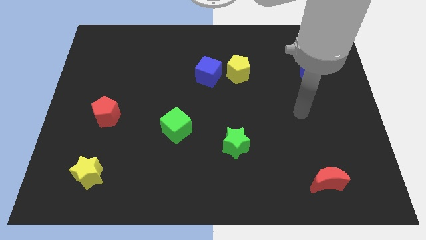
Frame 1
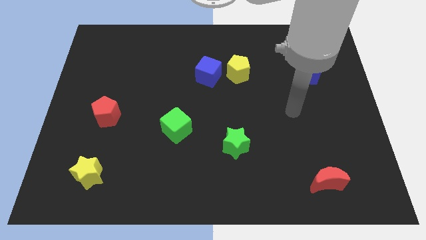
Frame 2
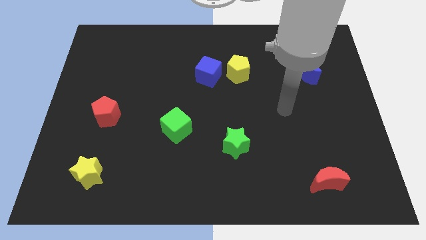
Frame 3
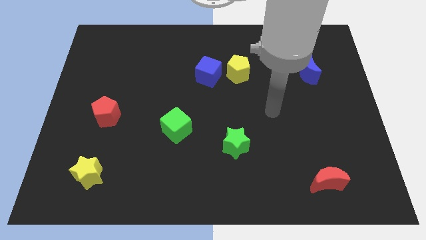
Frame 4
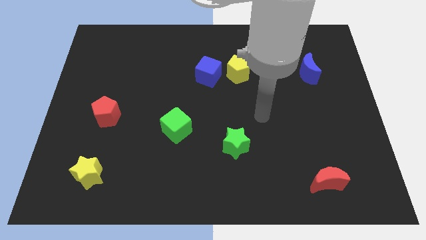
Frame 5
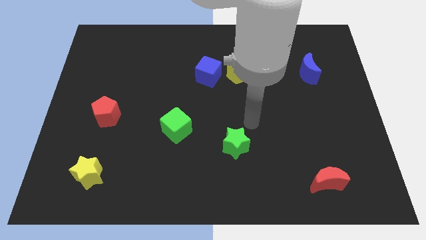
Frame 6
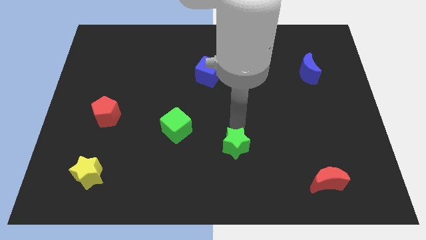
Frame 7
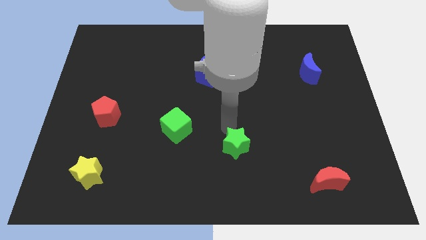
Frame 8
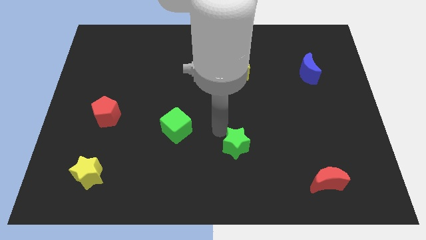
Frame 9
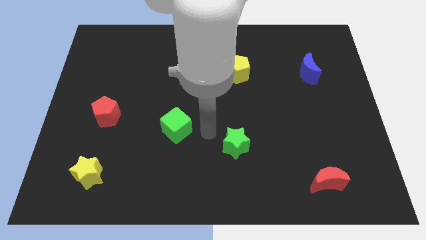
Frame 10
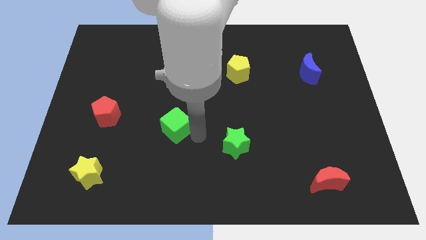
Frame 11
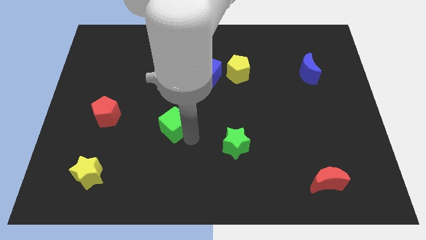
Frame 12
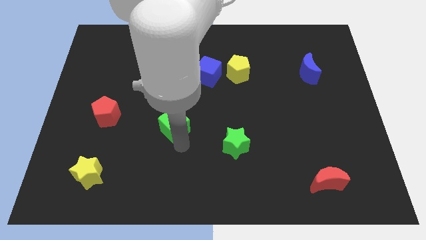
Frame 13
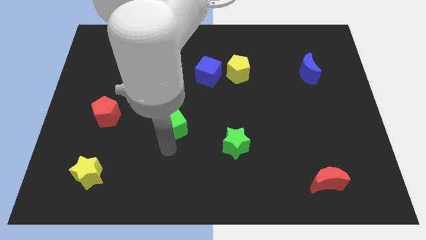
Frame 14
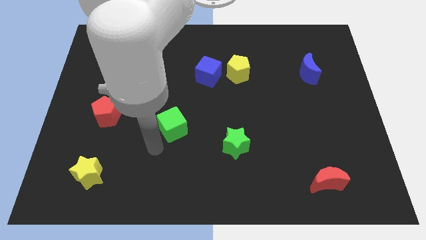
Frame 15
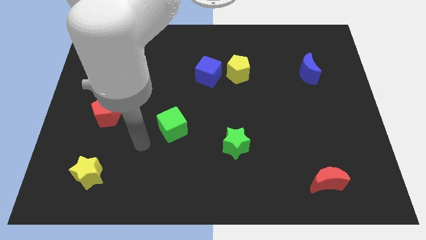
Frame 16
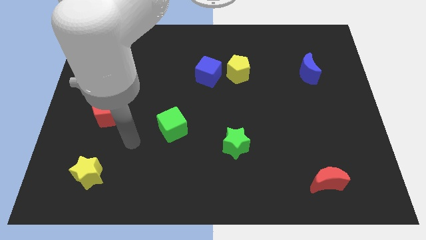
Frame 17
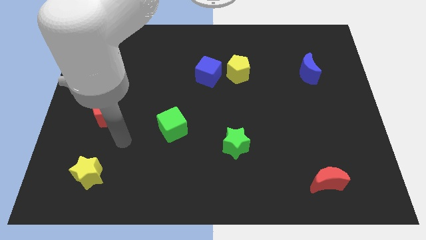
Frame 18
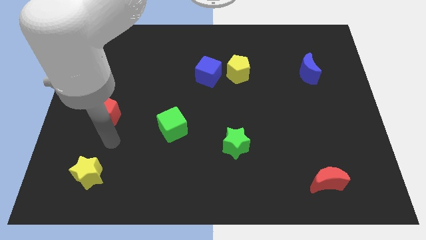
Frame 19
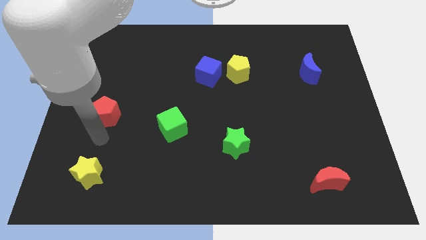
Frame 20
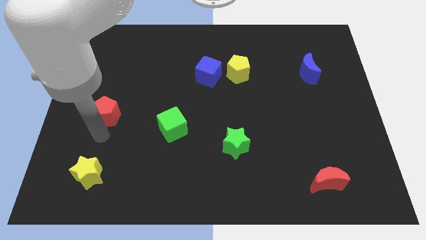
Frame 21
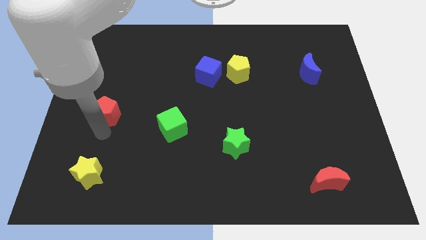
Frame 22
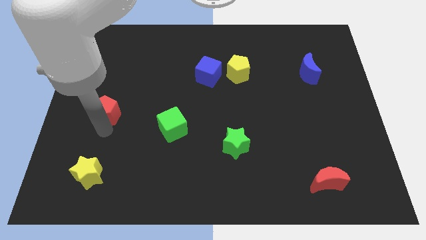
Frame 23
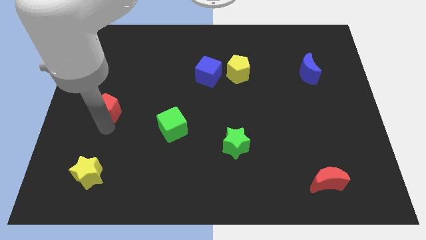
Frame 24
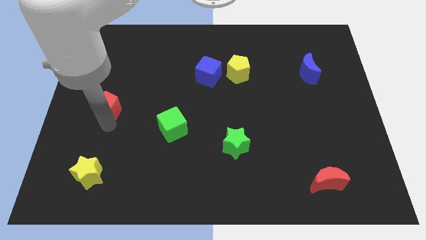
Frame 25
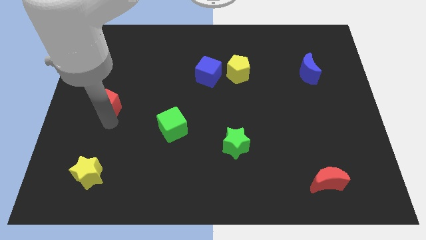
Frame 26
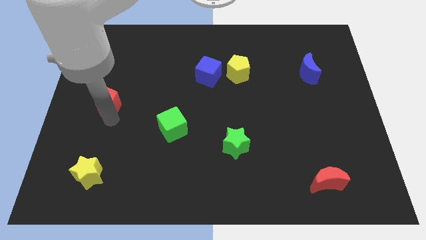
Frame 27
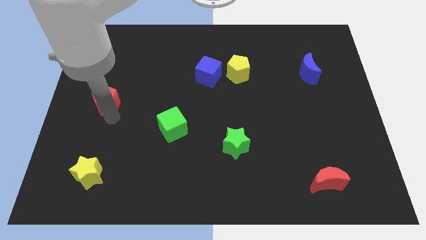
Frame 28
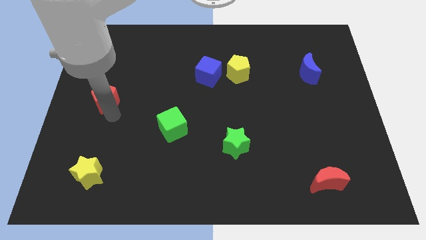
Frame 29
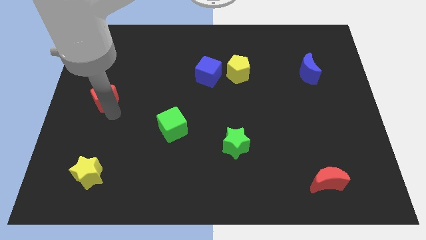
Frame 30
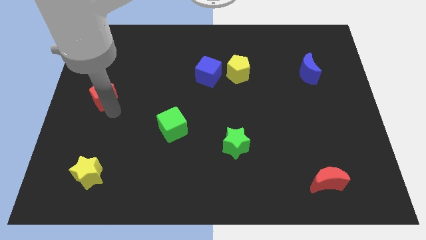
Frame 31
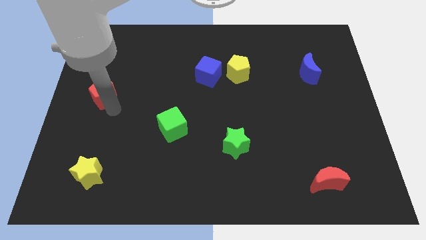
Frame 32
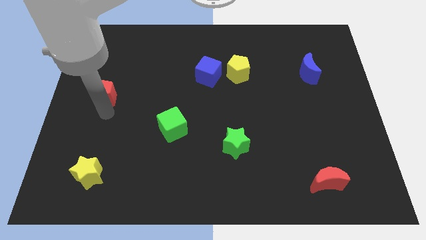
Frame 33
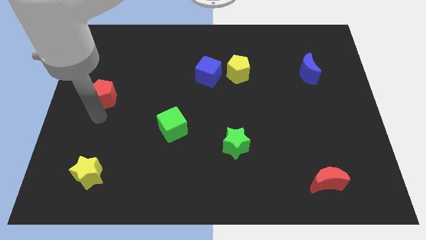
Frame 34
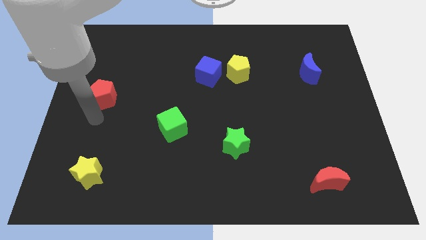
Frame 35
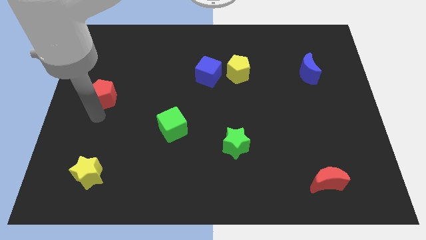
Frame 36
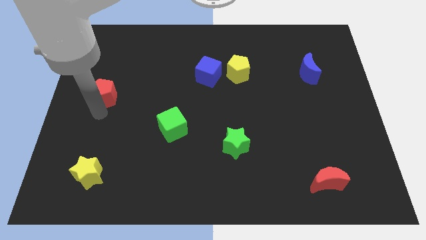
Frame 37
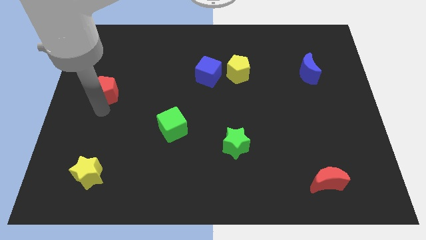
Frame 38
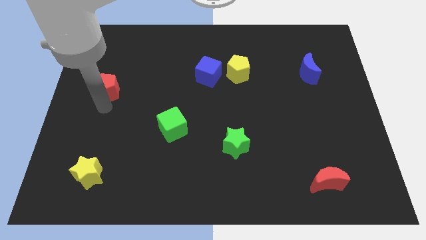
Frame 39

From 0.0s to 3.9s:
push the red pentagon slightly upwards

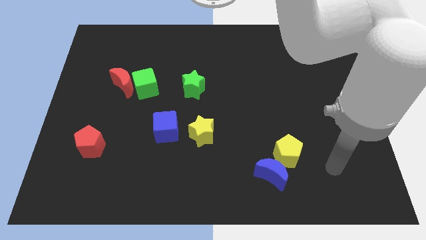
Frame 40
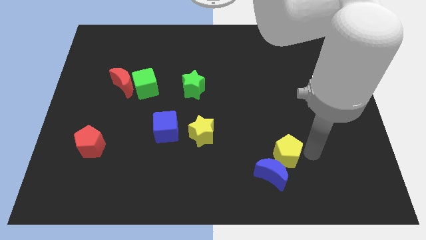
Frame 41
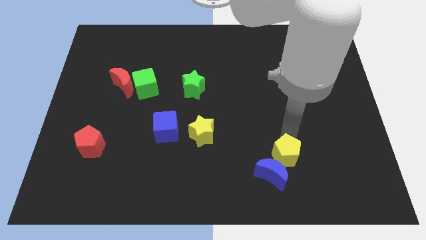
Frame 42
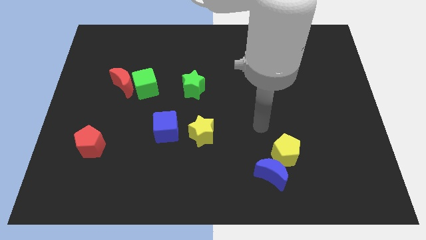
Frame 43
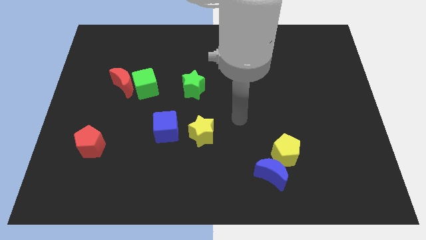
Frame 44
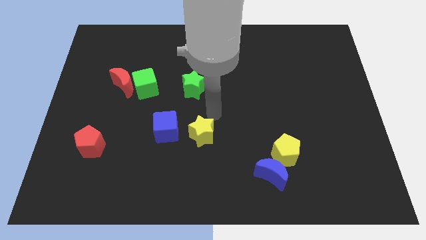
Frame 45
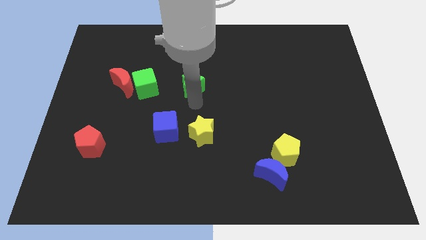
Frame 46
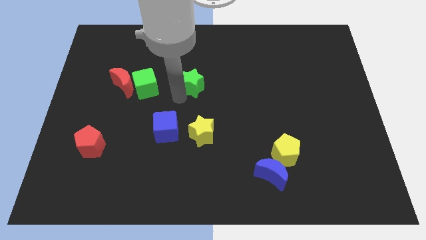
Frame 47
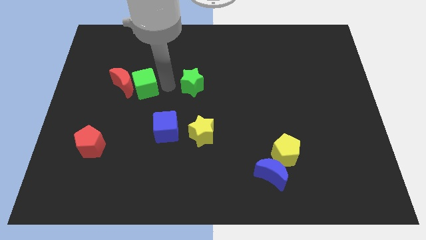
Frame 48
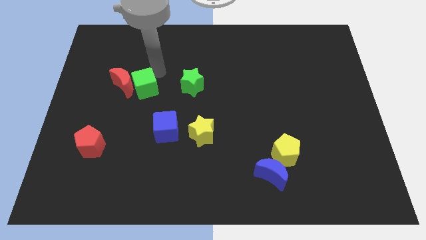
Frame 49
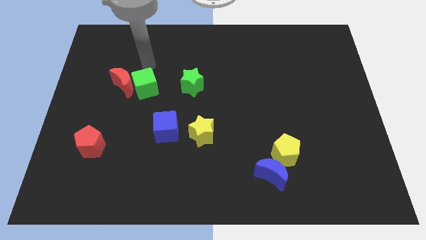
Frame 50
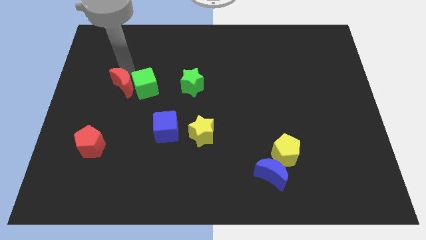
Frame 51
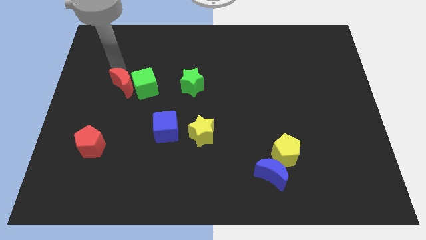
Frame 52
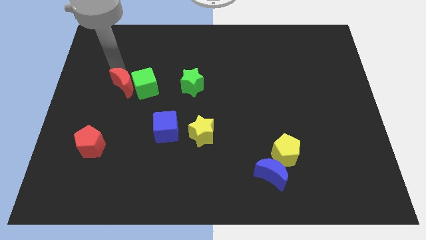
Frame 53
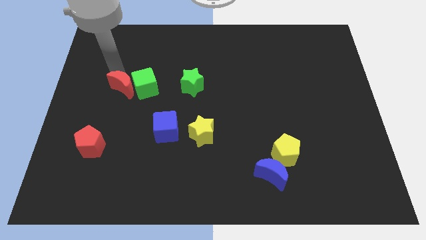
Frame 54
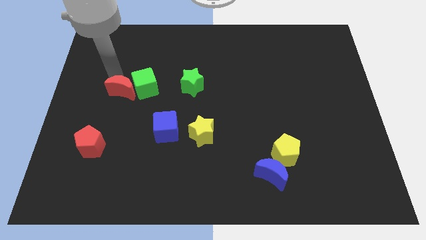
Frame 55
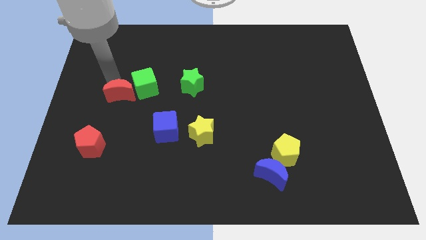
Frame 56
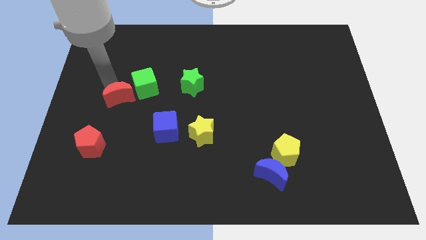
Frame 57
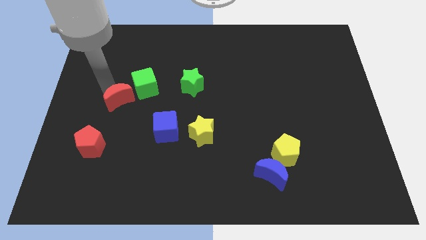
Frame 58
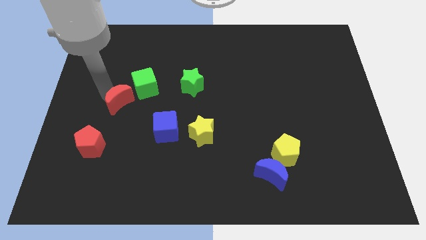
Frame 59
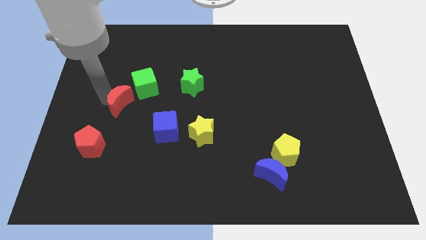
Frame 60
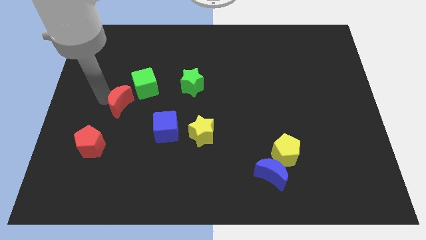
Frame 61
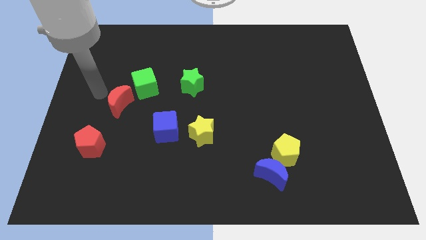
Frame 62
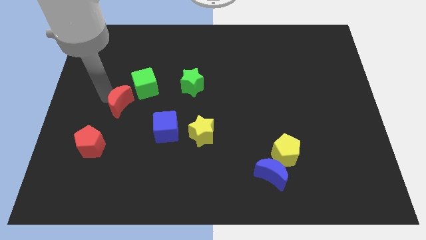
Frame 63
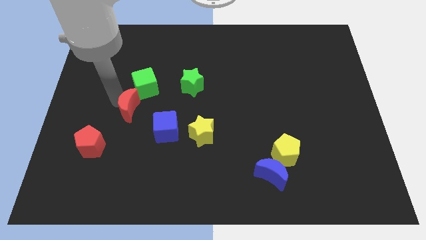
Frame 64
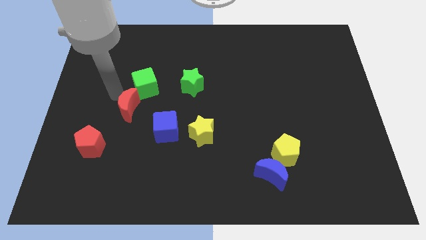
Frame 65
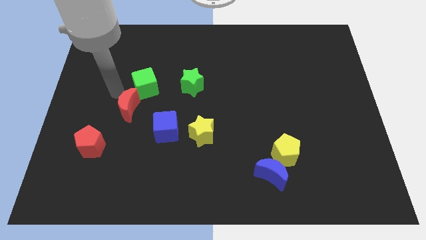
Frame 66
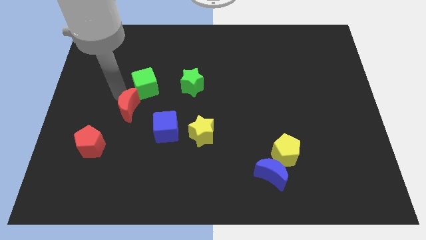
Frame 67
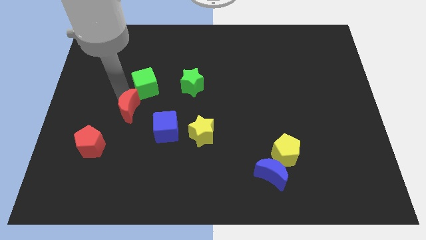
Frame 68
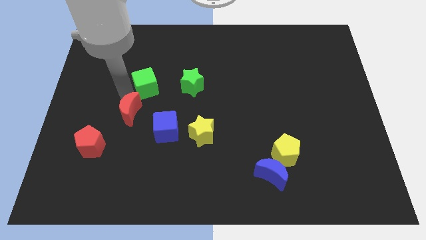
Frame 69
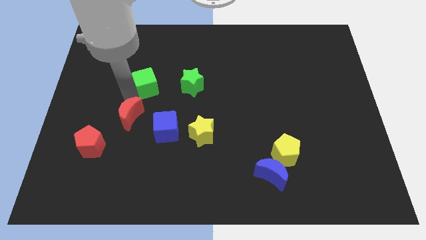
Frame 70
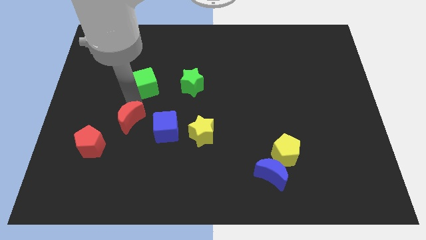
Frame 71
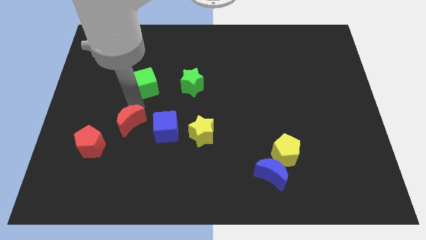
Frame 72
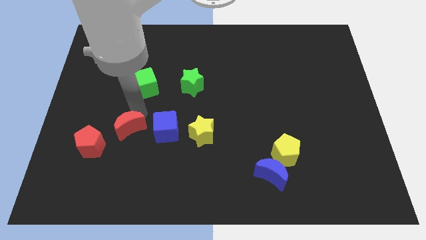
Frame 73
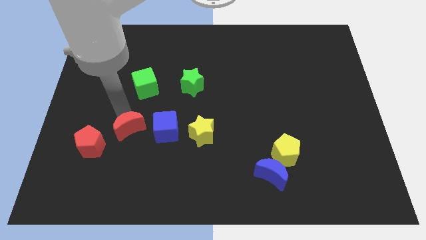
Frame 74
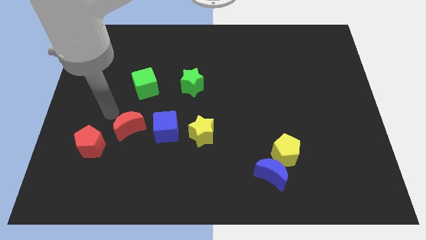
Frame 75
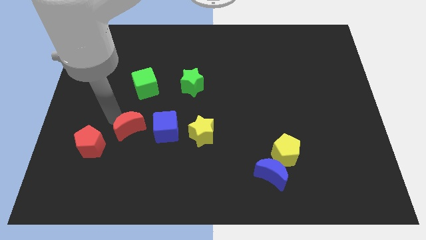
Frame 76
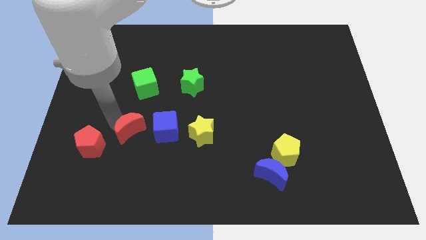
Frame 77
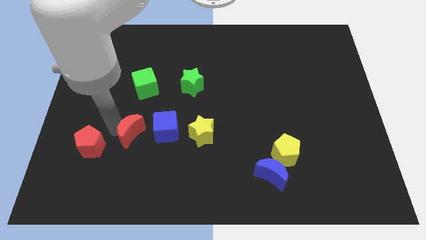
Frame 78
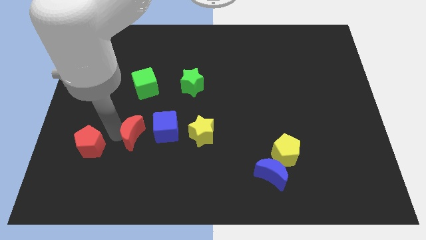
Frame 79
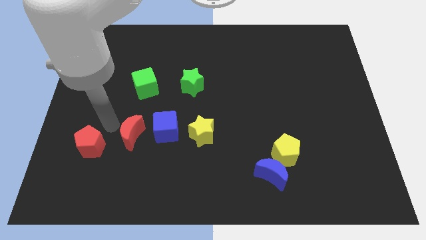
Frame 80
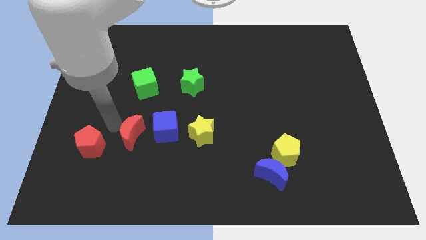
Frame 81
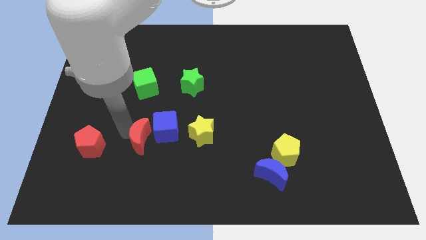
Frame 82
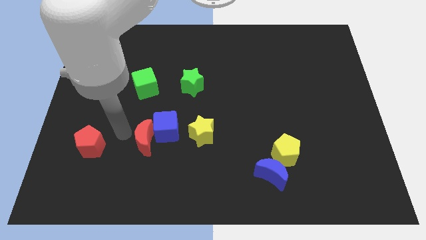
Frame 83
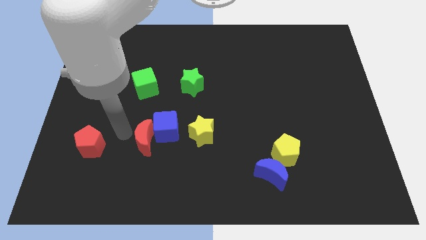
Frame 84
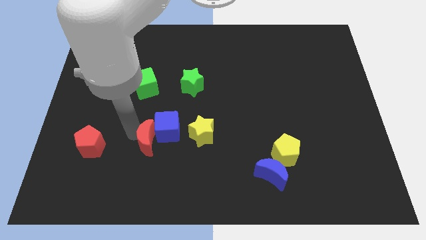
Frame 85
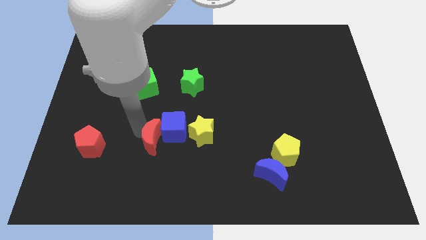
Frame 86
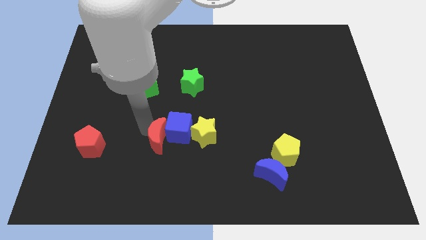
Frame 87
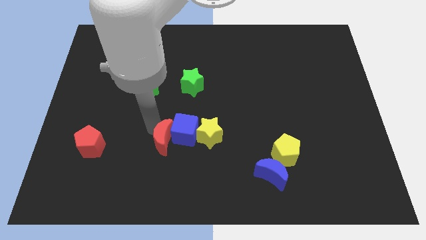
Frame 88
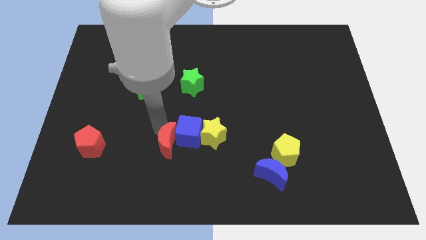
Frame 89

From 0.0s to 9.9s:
slide the red moon downwards and to the right diagonally
